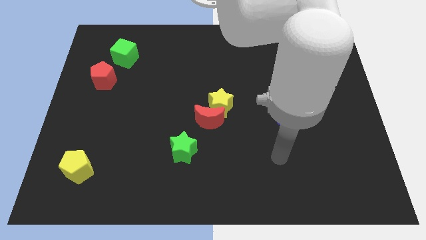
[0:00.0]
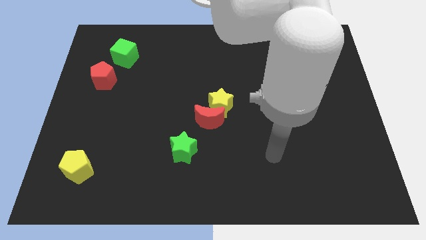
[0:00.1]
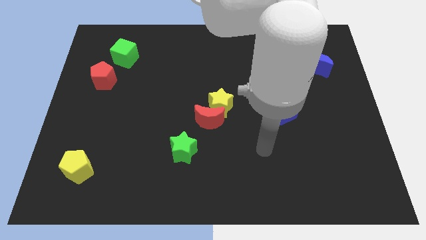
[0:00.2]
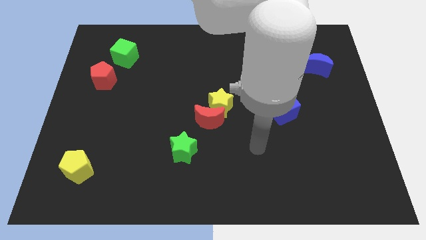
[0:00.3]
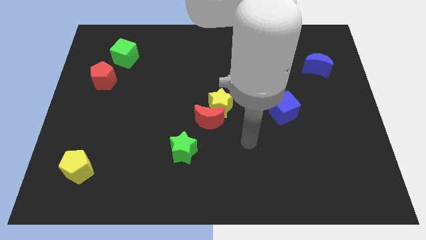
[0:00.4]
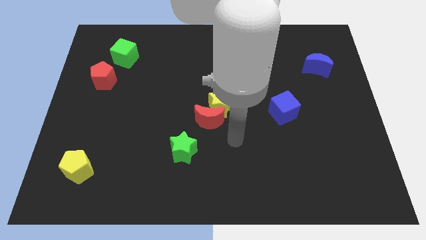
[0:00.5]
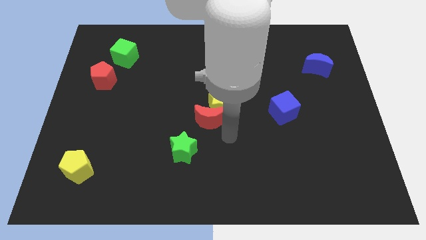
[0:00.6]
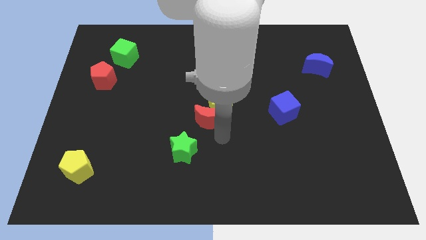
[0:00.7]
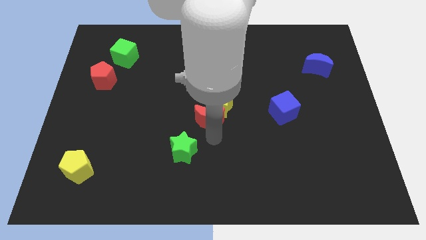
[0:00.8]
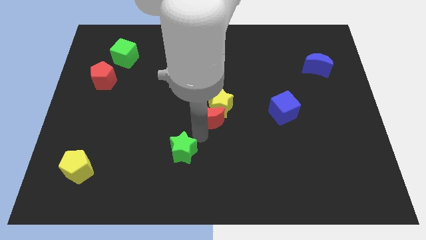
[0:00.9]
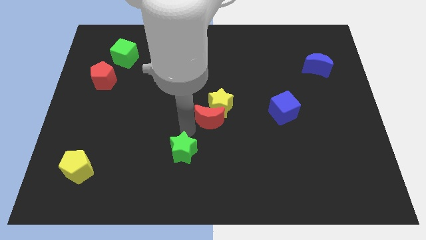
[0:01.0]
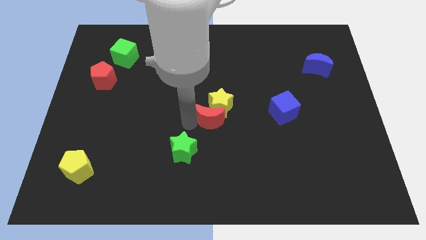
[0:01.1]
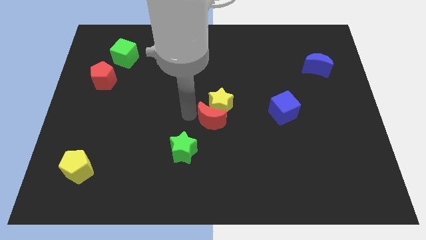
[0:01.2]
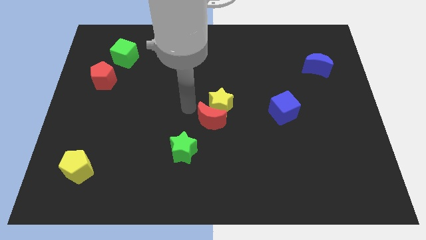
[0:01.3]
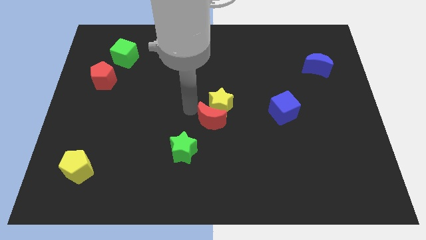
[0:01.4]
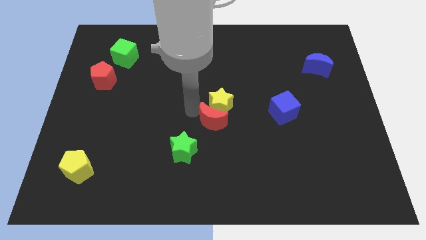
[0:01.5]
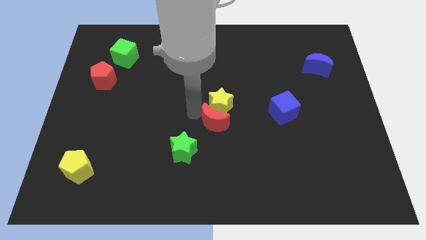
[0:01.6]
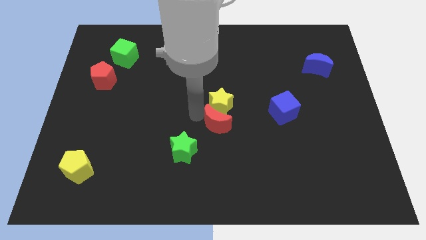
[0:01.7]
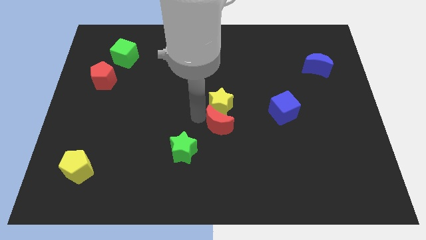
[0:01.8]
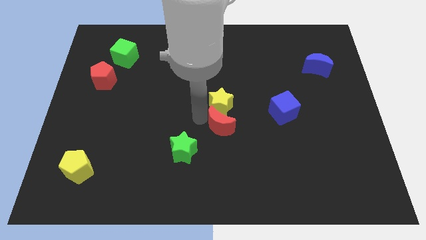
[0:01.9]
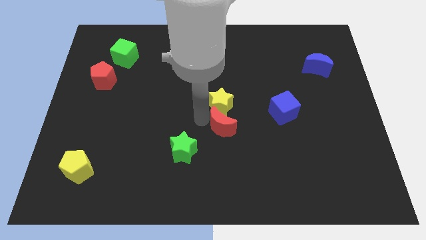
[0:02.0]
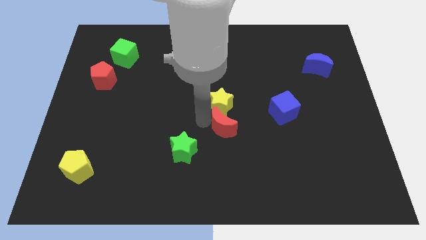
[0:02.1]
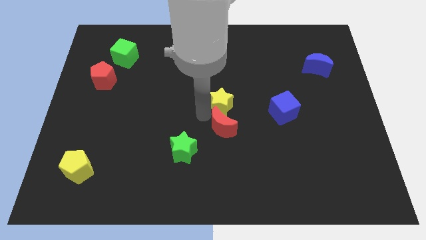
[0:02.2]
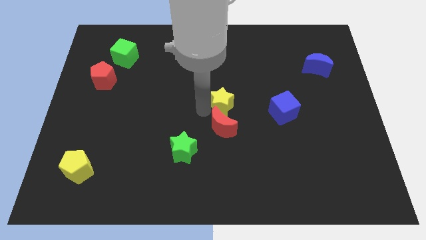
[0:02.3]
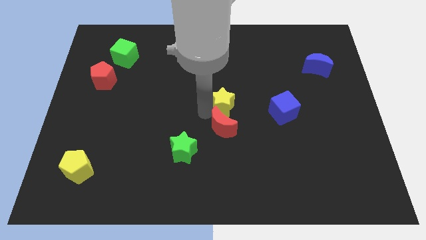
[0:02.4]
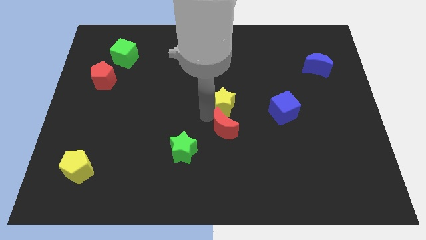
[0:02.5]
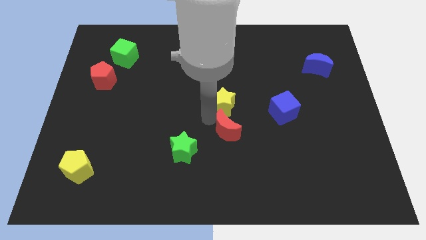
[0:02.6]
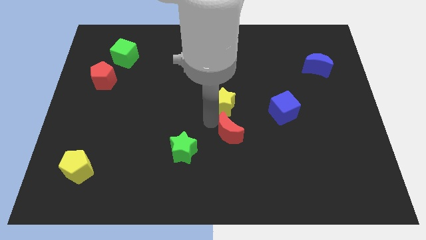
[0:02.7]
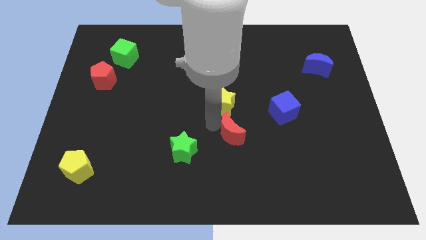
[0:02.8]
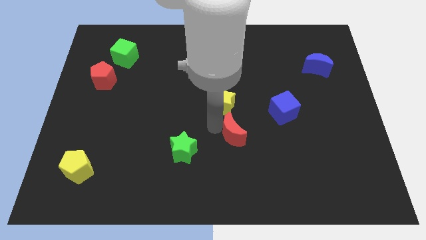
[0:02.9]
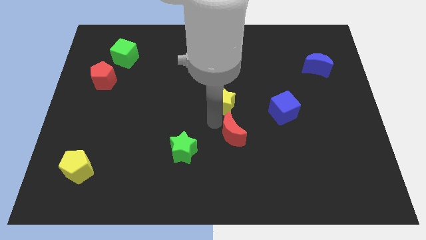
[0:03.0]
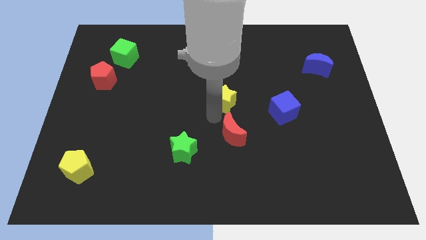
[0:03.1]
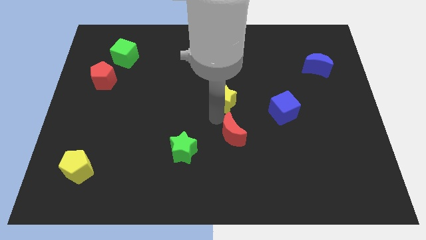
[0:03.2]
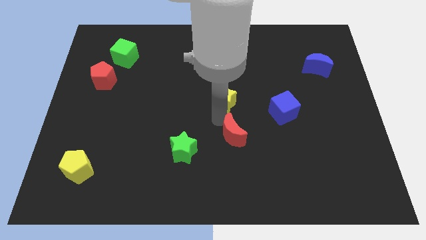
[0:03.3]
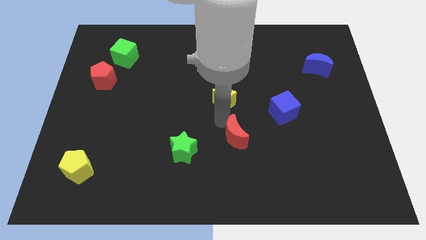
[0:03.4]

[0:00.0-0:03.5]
slightly push the red moon downwards and then to the right

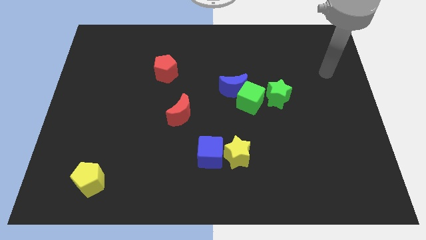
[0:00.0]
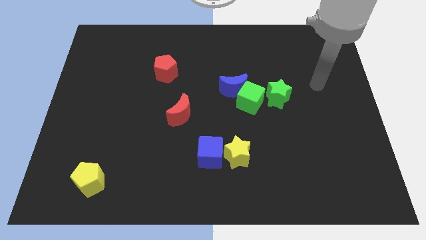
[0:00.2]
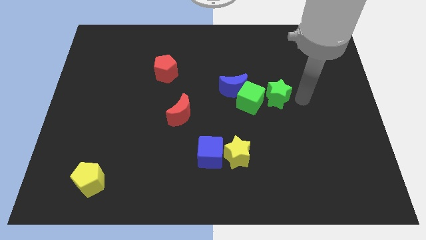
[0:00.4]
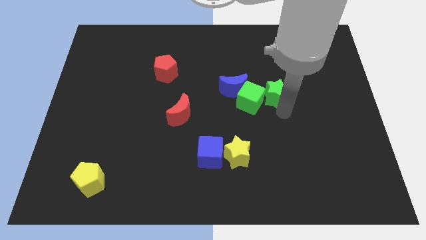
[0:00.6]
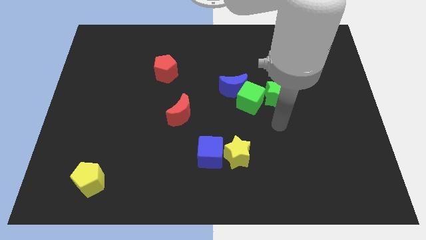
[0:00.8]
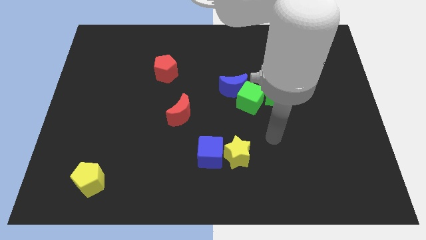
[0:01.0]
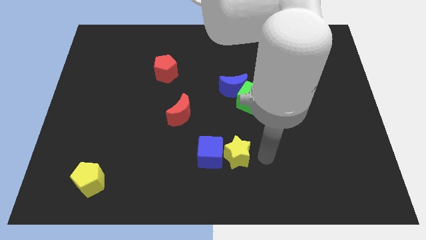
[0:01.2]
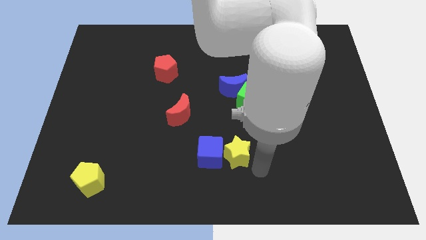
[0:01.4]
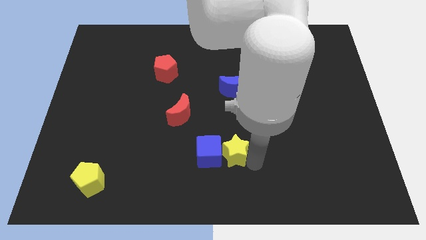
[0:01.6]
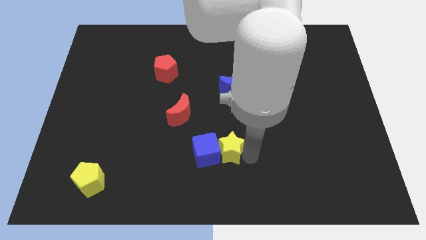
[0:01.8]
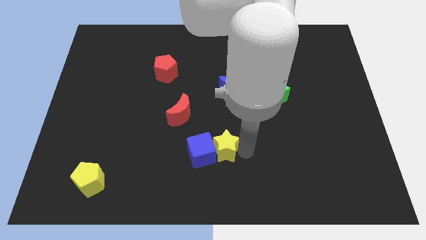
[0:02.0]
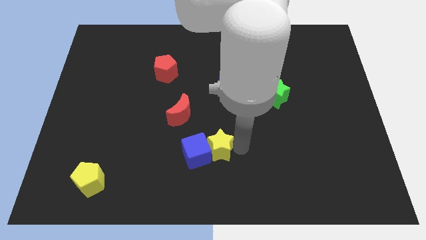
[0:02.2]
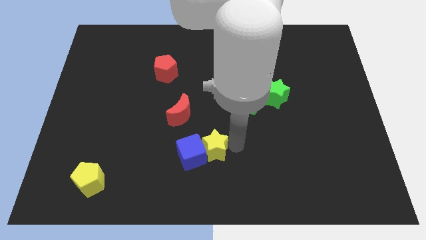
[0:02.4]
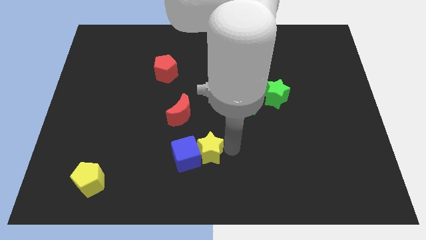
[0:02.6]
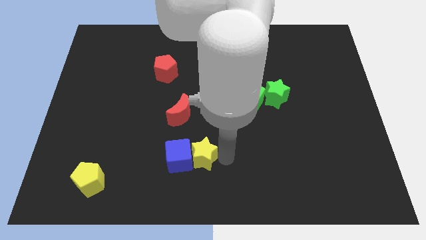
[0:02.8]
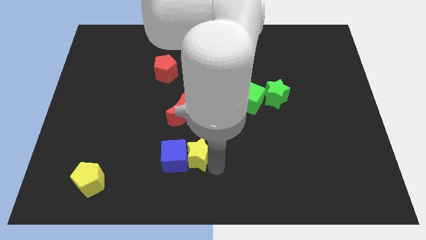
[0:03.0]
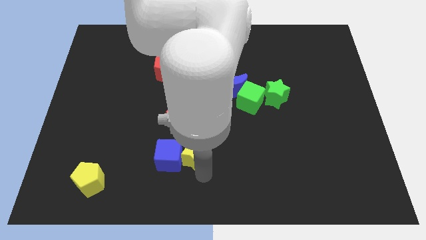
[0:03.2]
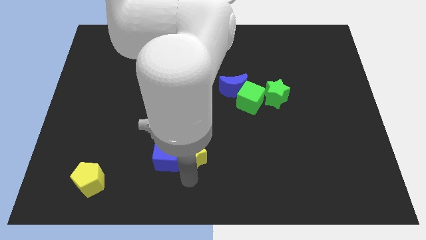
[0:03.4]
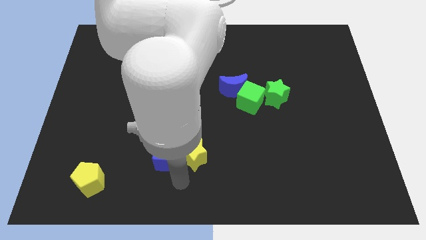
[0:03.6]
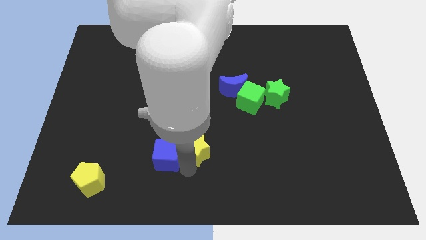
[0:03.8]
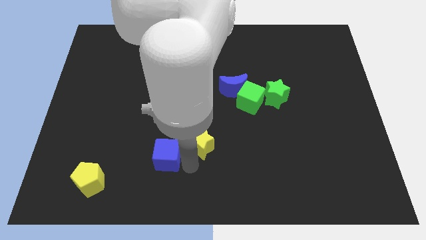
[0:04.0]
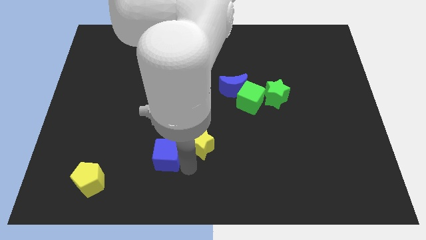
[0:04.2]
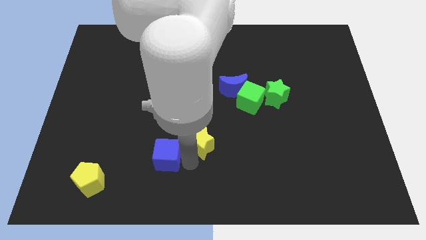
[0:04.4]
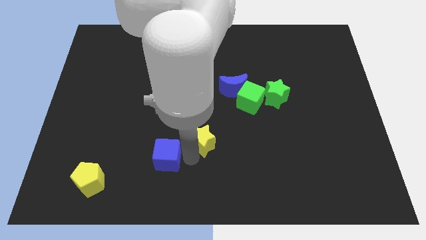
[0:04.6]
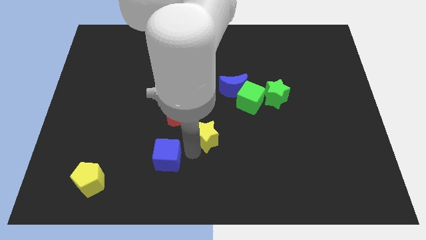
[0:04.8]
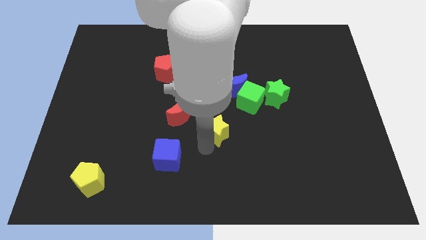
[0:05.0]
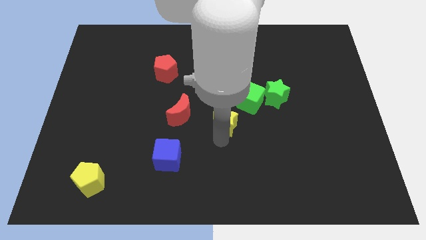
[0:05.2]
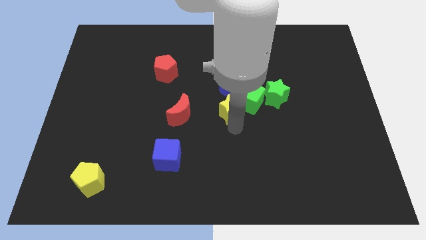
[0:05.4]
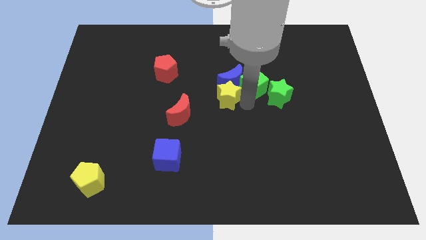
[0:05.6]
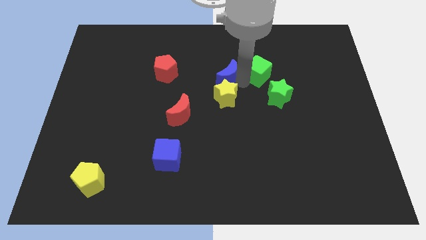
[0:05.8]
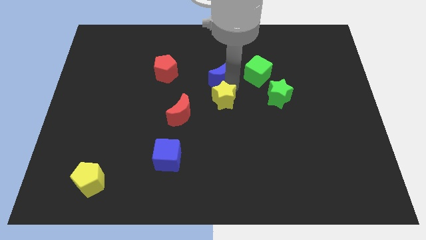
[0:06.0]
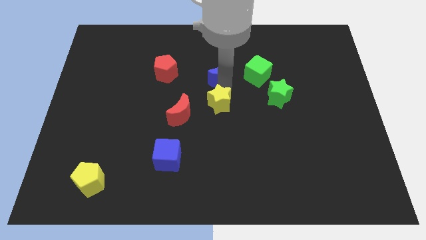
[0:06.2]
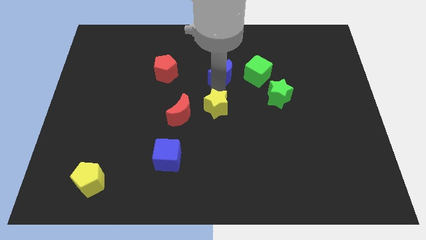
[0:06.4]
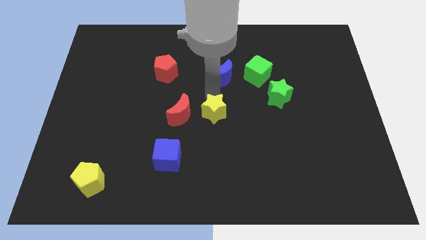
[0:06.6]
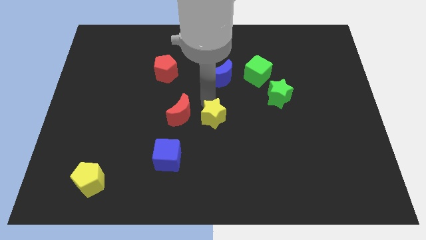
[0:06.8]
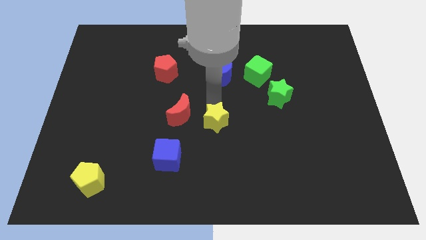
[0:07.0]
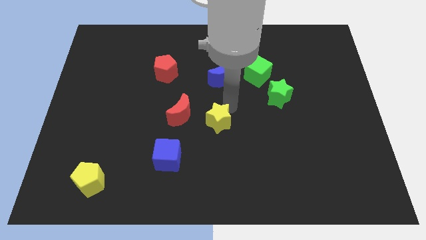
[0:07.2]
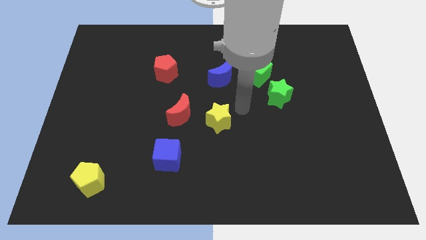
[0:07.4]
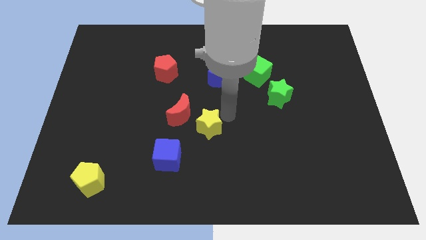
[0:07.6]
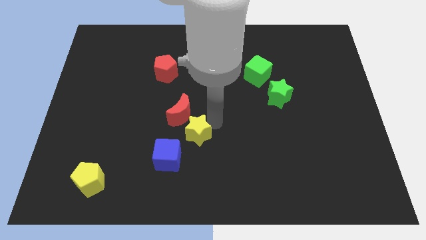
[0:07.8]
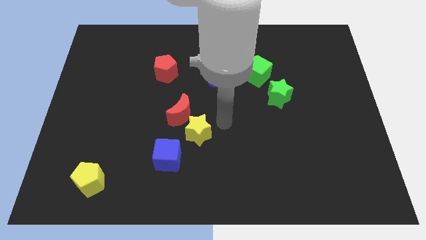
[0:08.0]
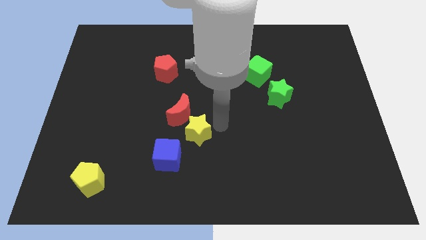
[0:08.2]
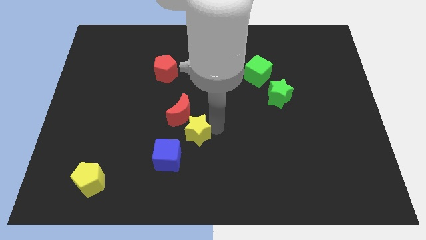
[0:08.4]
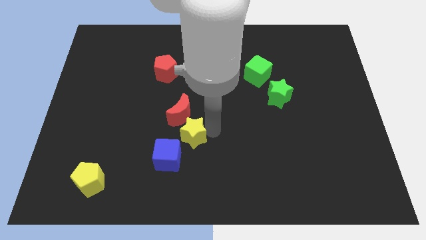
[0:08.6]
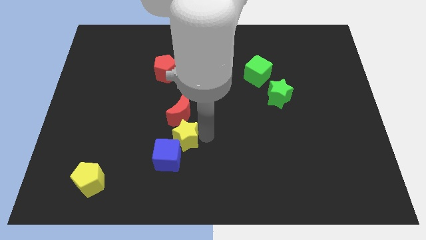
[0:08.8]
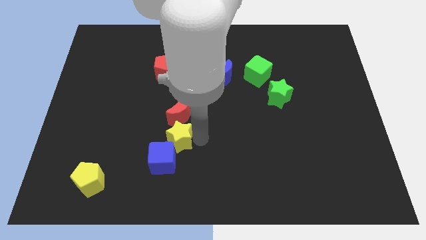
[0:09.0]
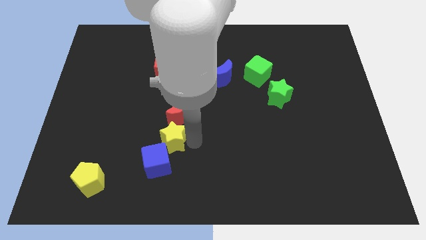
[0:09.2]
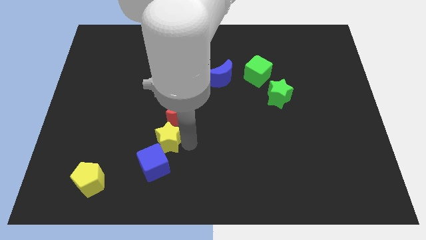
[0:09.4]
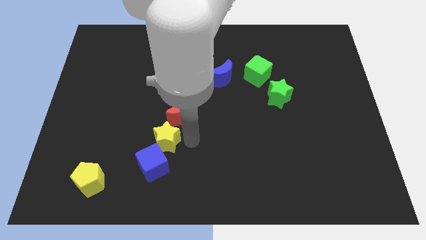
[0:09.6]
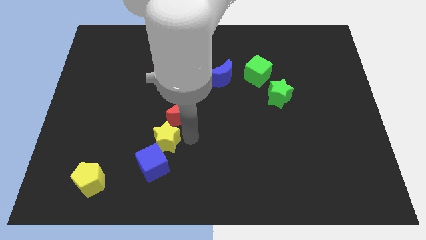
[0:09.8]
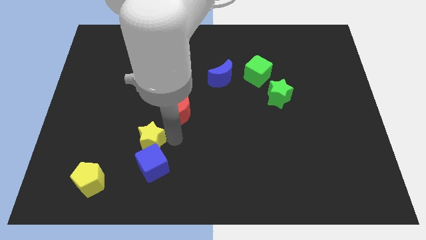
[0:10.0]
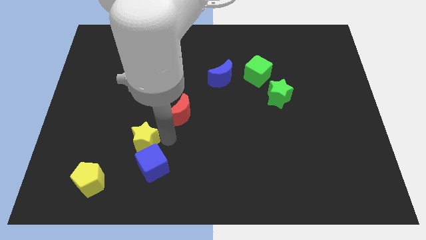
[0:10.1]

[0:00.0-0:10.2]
move the yellow star to the left
